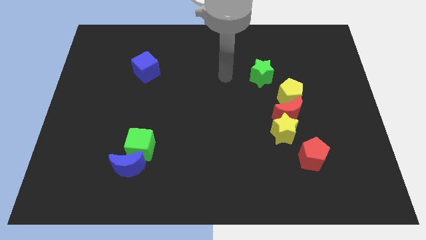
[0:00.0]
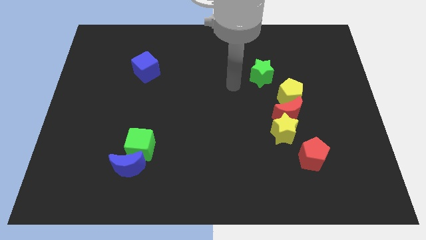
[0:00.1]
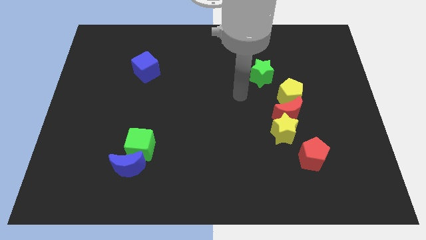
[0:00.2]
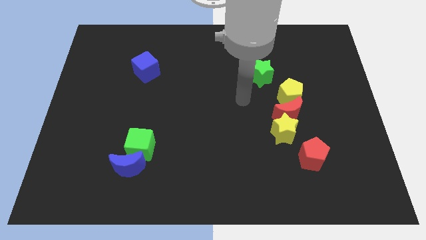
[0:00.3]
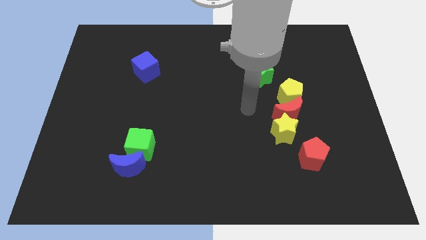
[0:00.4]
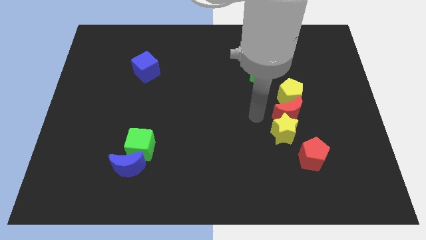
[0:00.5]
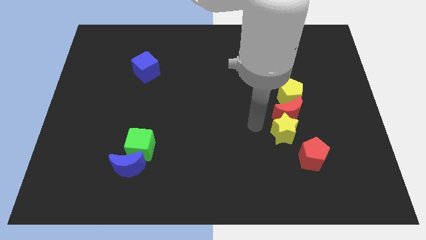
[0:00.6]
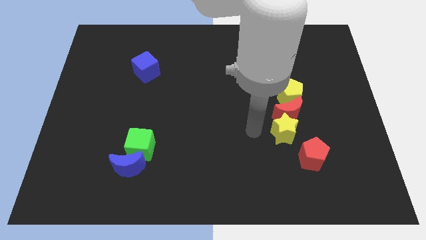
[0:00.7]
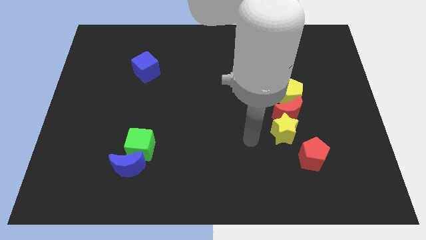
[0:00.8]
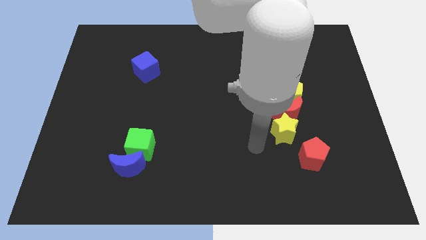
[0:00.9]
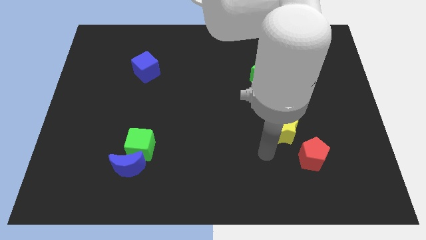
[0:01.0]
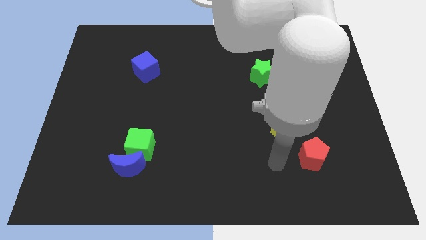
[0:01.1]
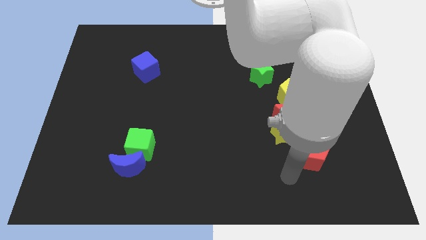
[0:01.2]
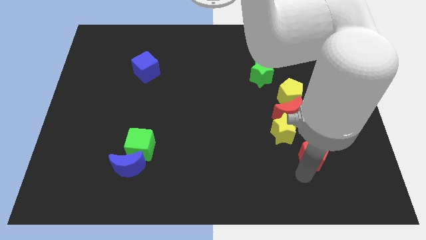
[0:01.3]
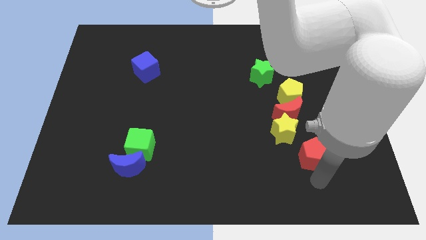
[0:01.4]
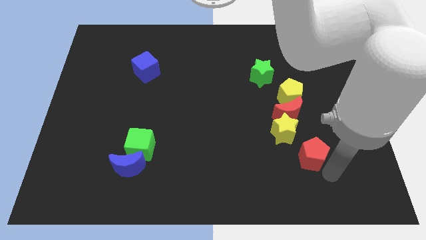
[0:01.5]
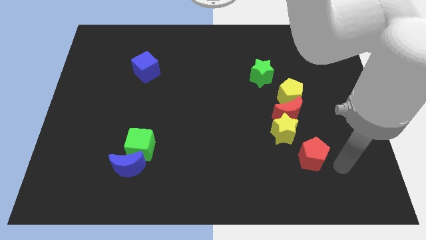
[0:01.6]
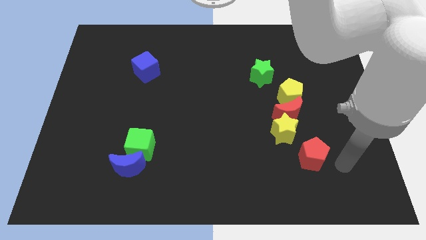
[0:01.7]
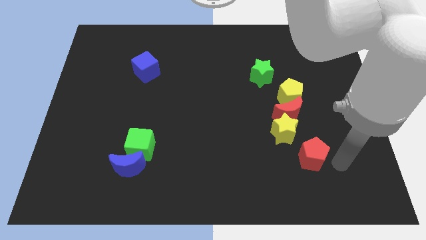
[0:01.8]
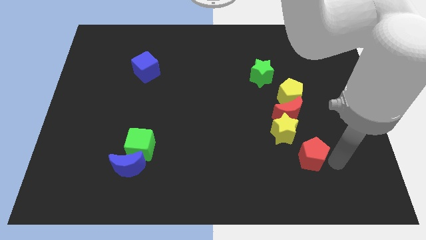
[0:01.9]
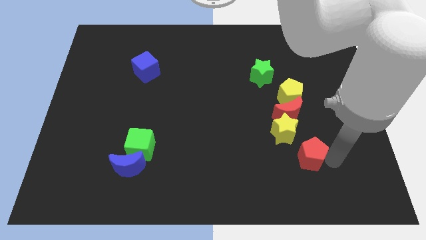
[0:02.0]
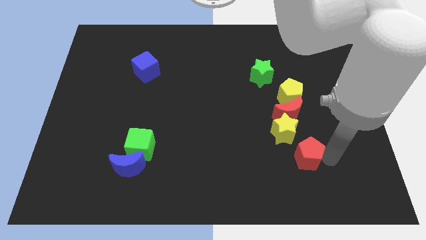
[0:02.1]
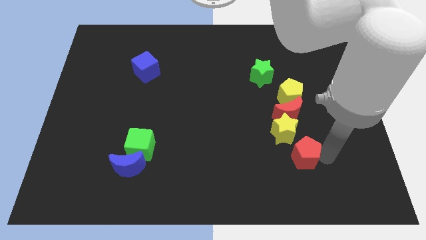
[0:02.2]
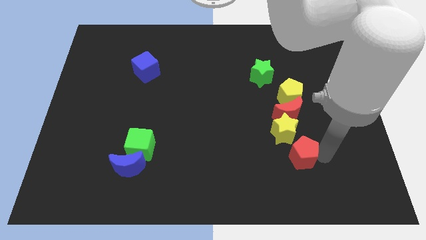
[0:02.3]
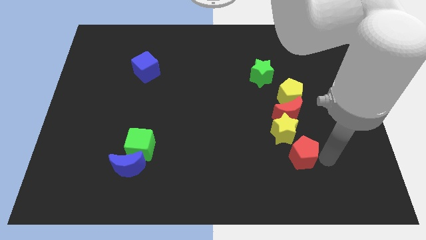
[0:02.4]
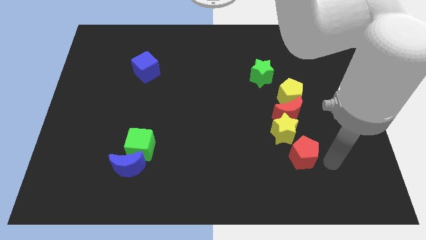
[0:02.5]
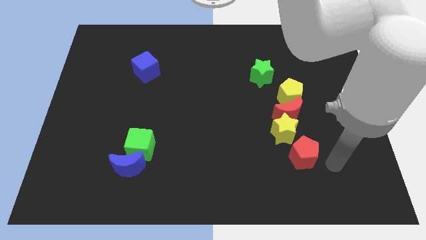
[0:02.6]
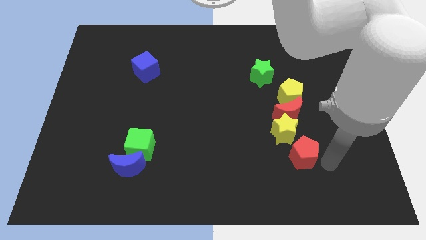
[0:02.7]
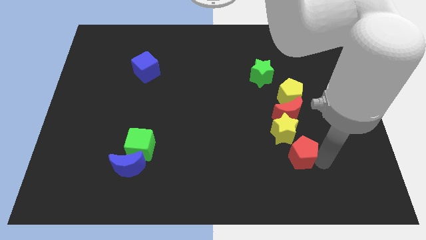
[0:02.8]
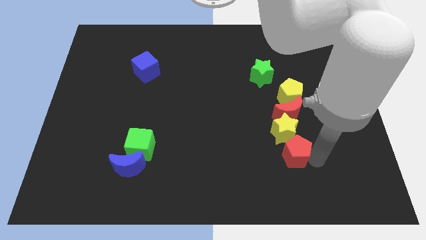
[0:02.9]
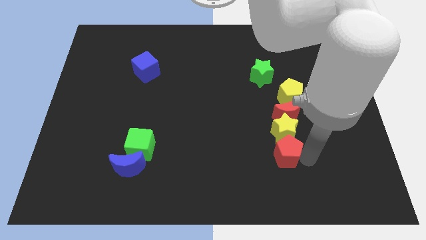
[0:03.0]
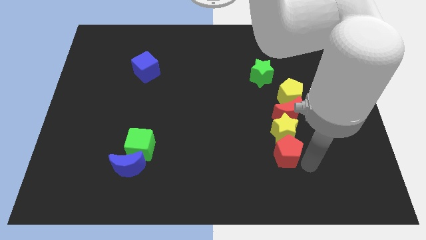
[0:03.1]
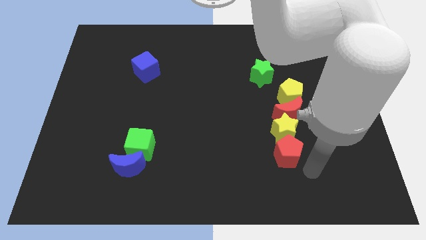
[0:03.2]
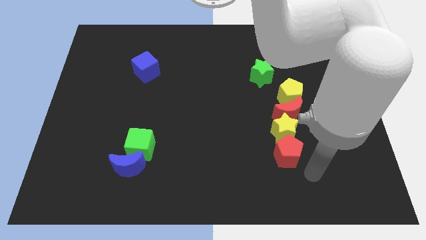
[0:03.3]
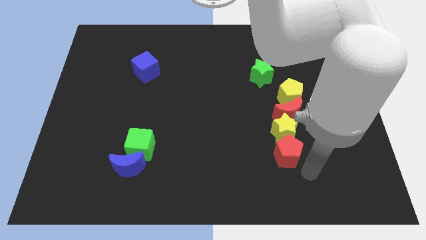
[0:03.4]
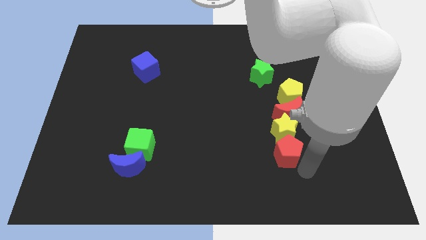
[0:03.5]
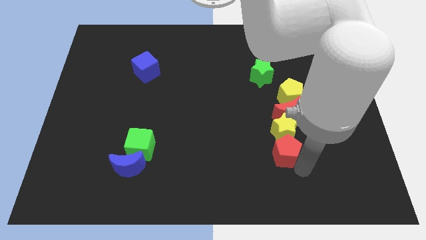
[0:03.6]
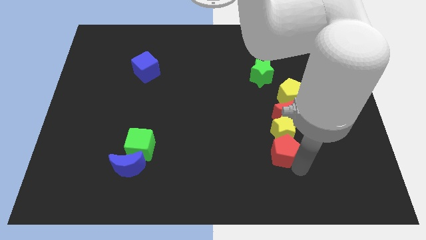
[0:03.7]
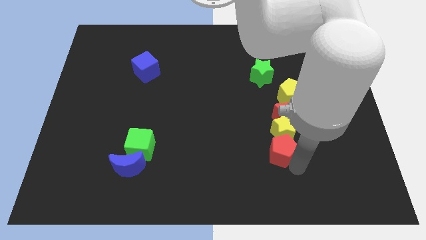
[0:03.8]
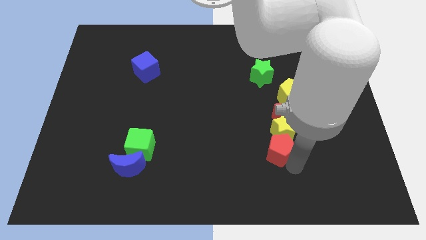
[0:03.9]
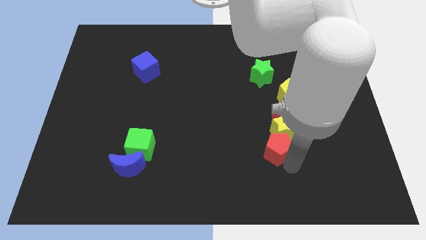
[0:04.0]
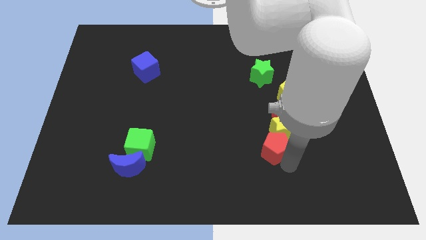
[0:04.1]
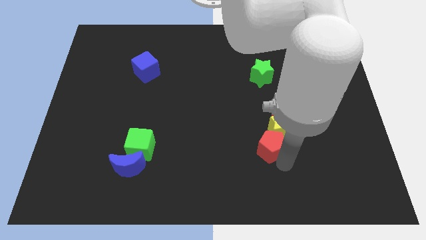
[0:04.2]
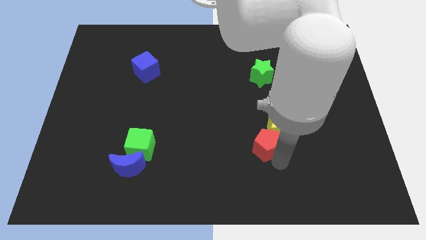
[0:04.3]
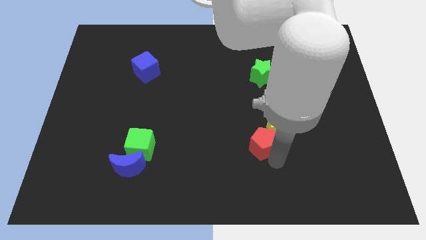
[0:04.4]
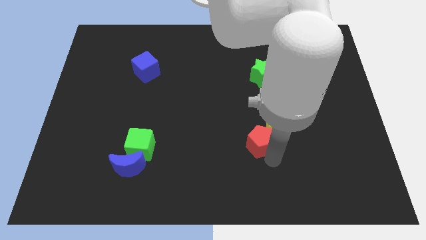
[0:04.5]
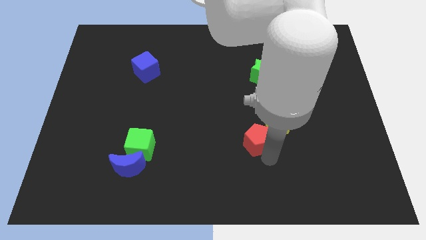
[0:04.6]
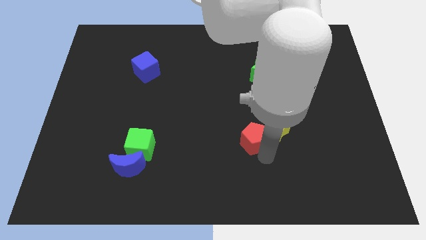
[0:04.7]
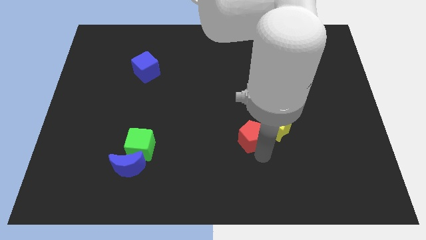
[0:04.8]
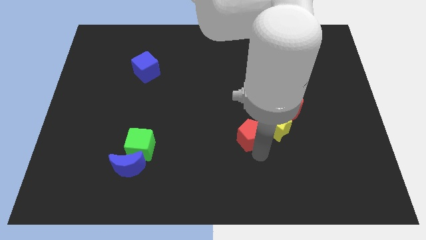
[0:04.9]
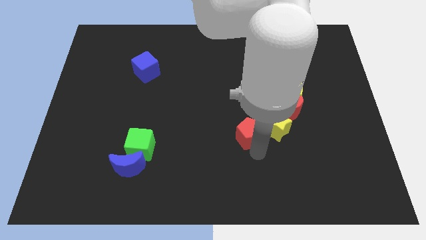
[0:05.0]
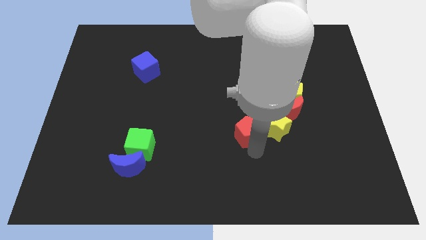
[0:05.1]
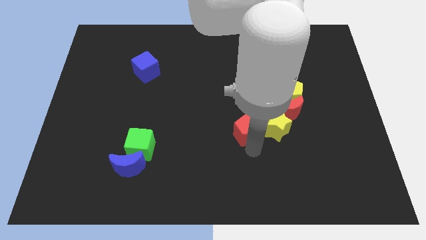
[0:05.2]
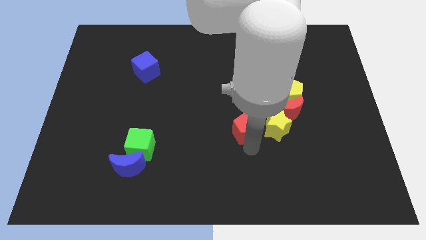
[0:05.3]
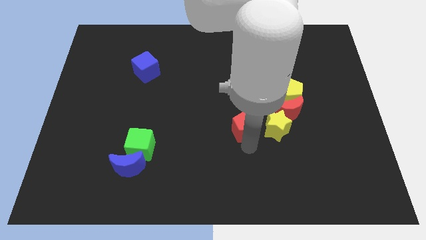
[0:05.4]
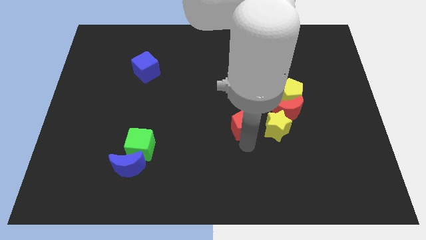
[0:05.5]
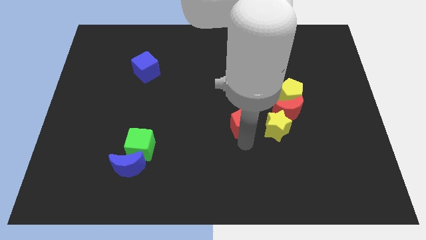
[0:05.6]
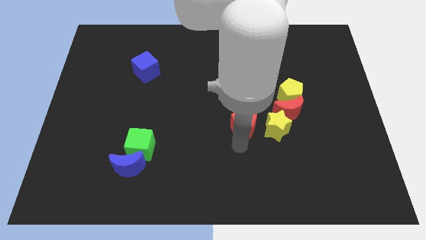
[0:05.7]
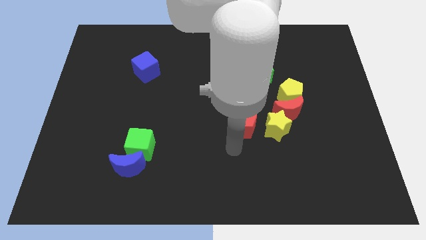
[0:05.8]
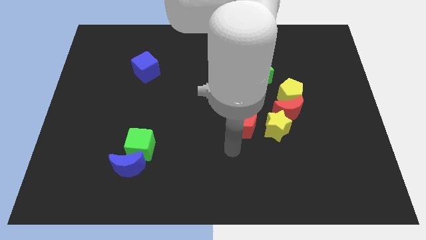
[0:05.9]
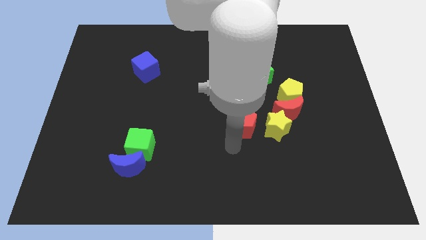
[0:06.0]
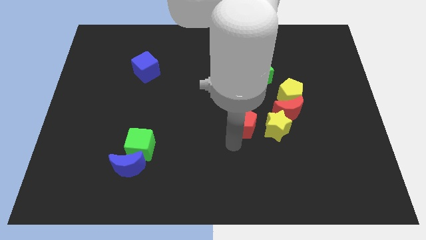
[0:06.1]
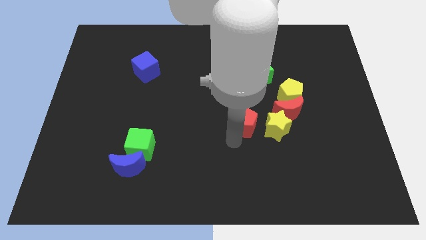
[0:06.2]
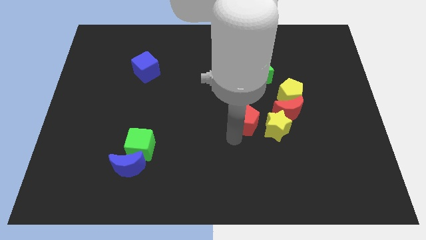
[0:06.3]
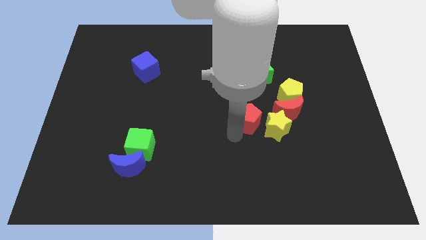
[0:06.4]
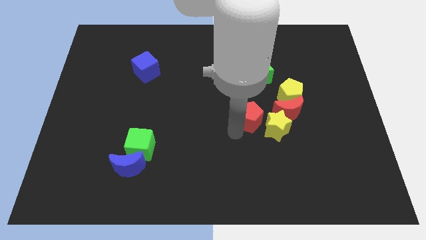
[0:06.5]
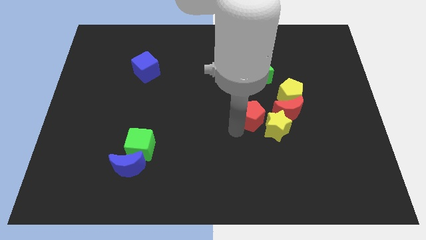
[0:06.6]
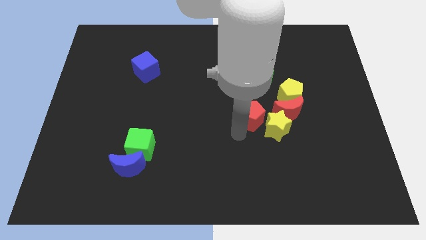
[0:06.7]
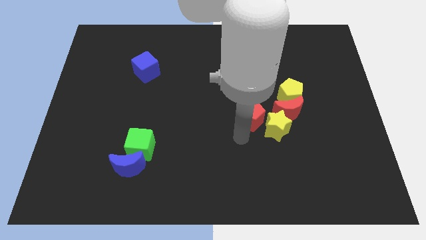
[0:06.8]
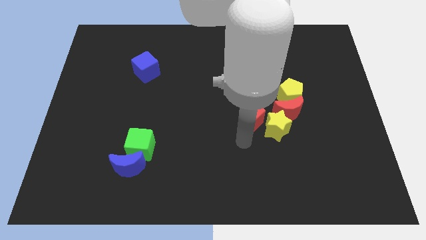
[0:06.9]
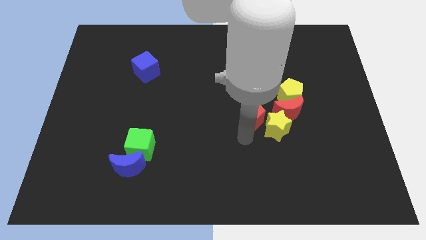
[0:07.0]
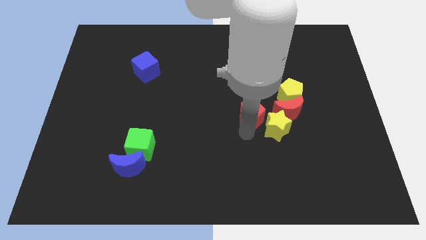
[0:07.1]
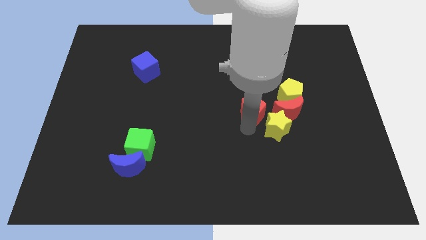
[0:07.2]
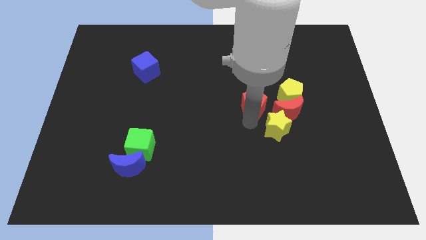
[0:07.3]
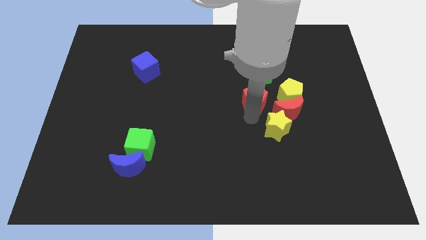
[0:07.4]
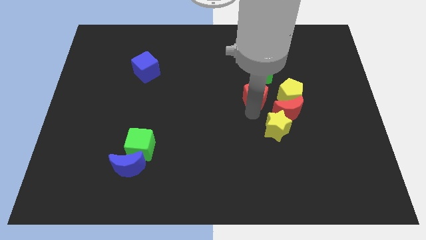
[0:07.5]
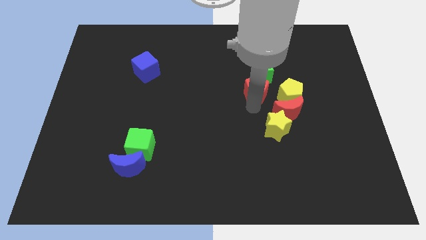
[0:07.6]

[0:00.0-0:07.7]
move the red pentagon towards the green star
